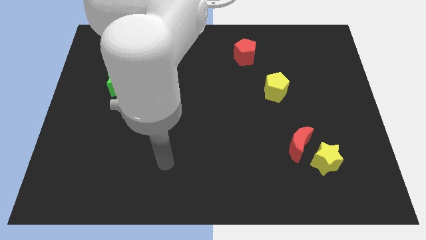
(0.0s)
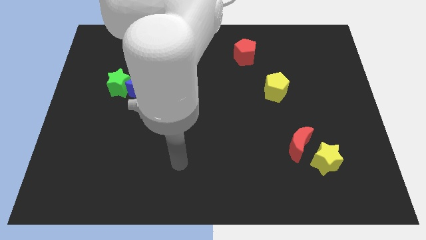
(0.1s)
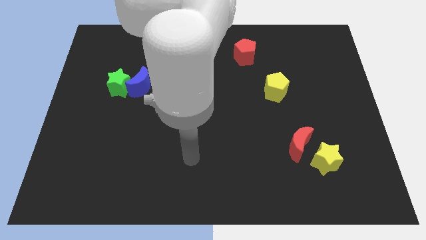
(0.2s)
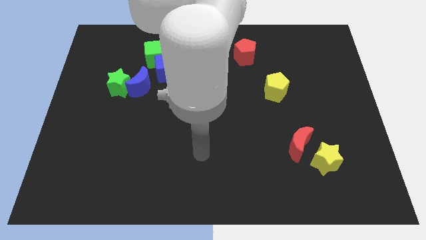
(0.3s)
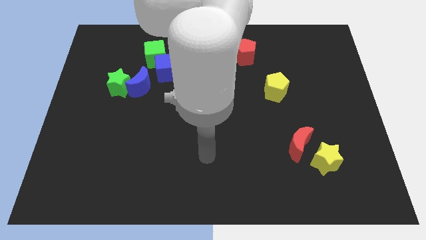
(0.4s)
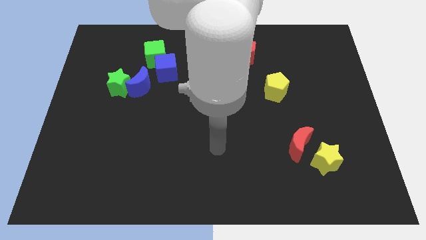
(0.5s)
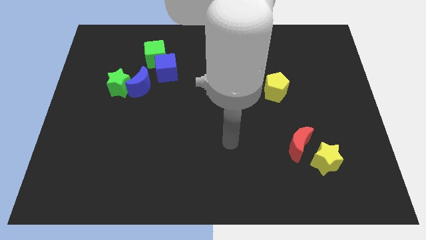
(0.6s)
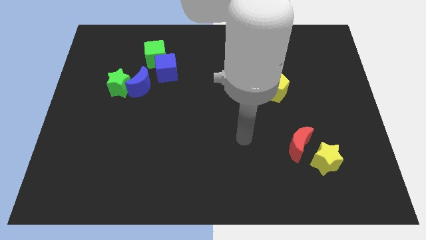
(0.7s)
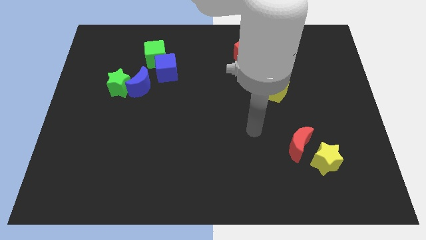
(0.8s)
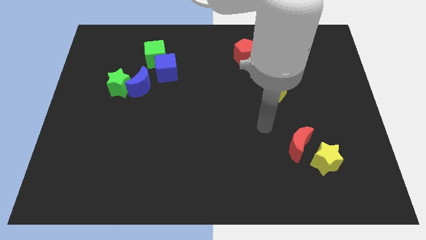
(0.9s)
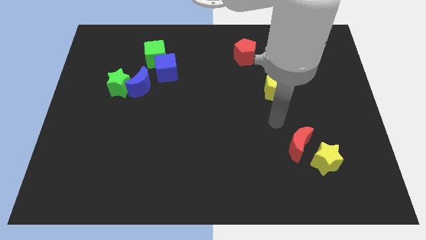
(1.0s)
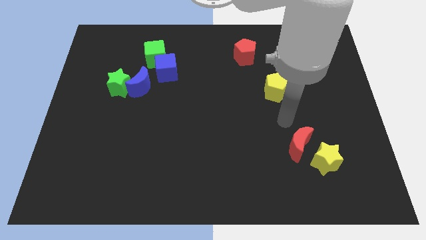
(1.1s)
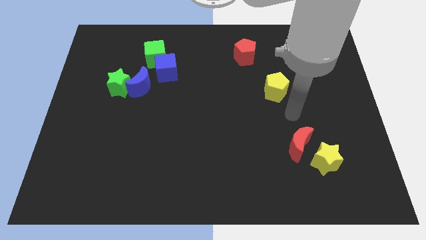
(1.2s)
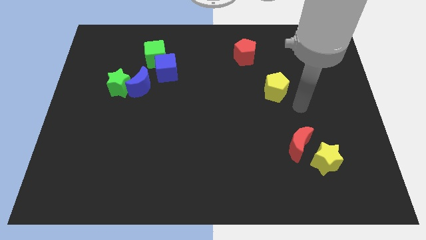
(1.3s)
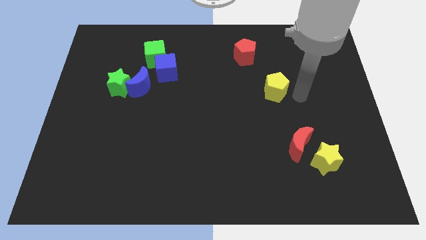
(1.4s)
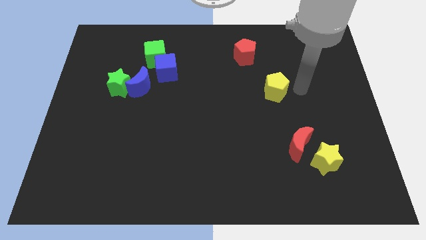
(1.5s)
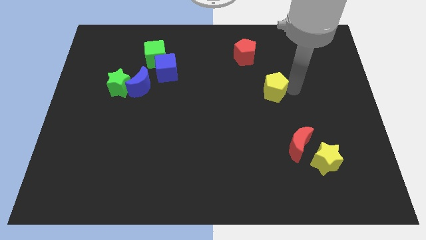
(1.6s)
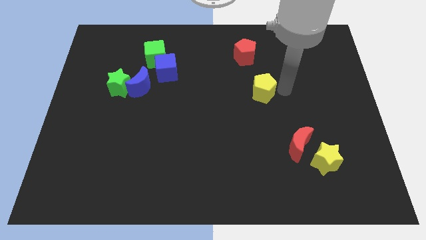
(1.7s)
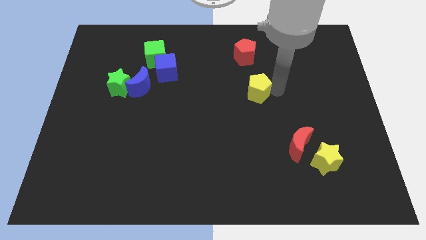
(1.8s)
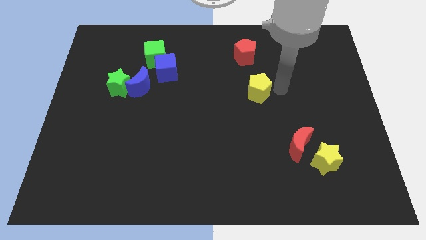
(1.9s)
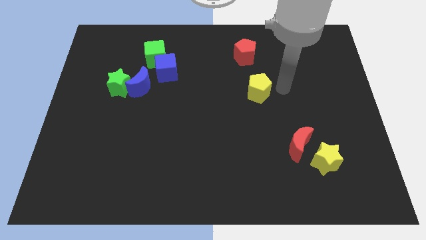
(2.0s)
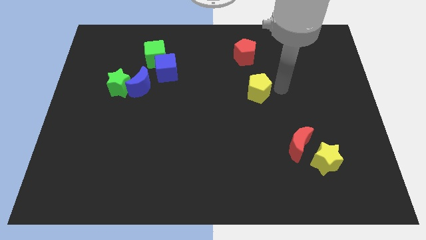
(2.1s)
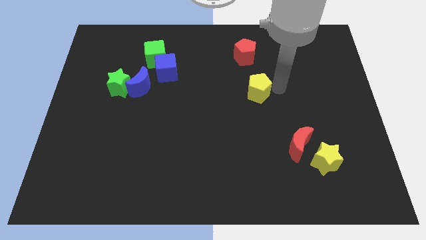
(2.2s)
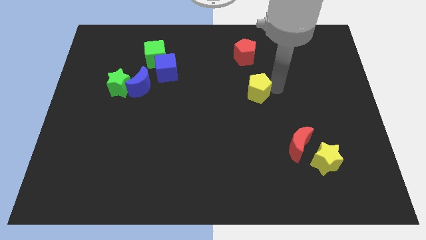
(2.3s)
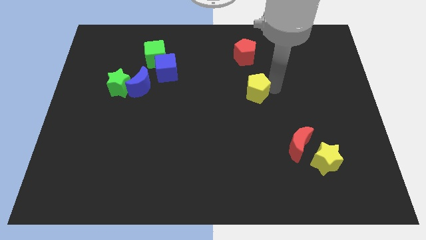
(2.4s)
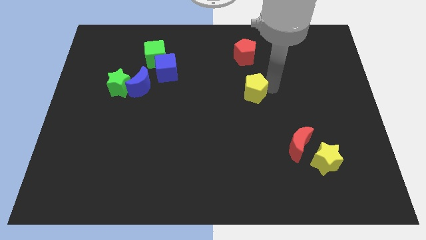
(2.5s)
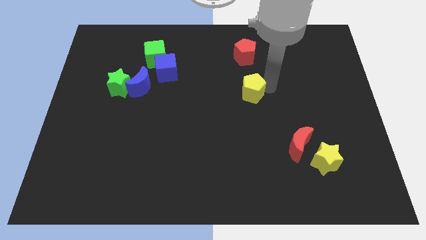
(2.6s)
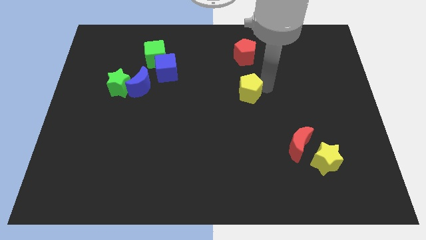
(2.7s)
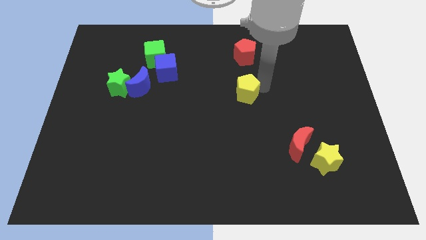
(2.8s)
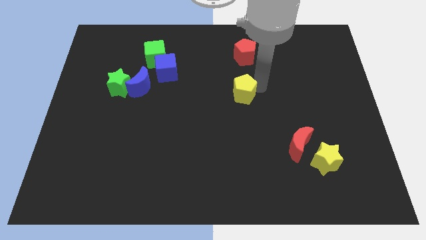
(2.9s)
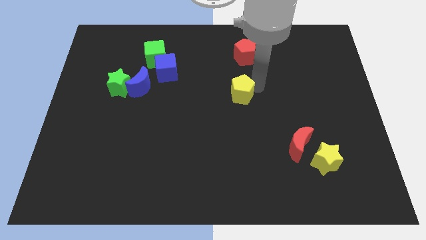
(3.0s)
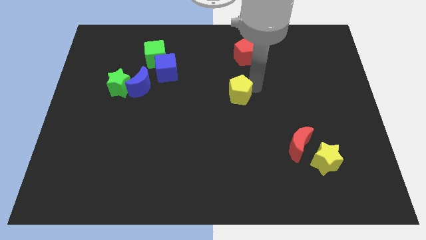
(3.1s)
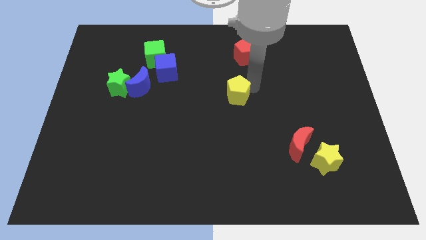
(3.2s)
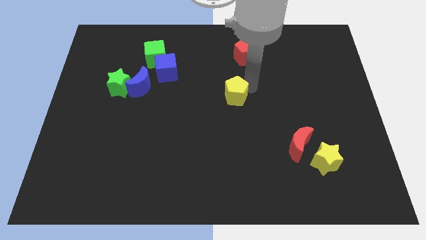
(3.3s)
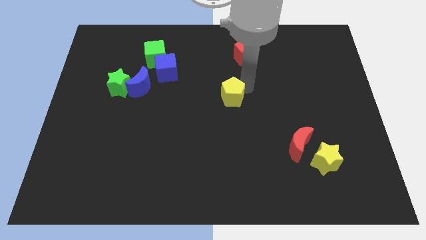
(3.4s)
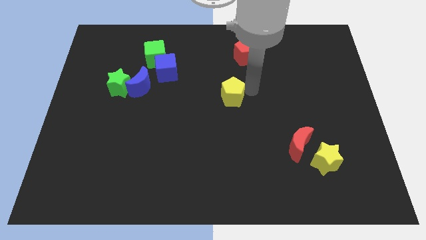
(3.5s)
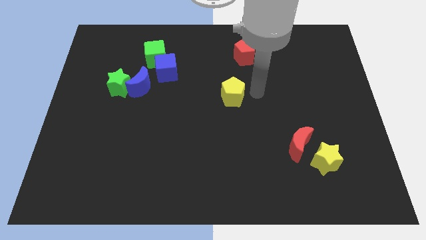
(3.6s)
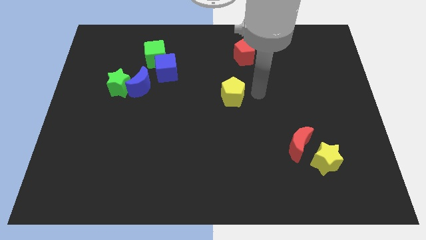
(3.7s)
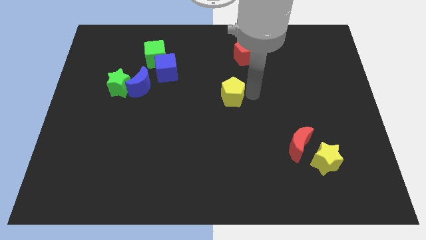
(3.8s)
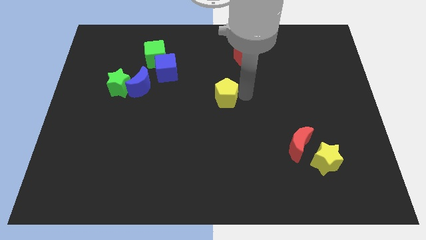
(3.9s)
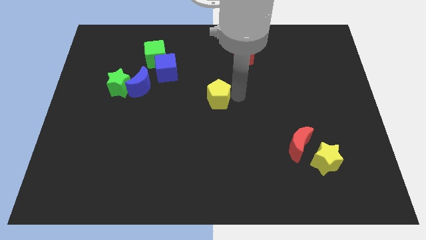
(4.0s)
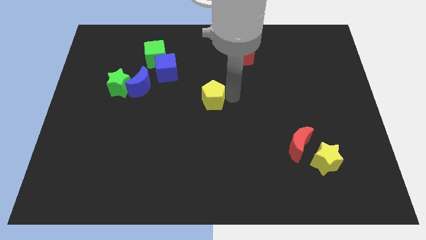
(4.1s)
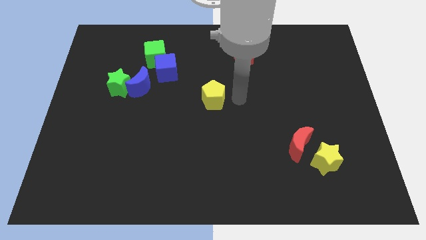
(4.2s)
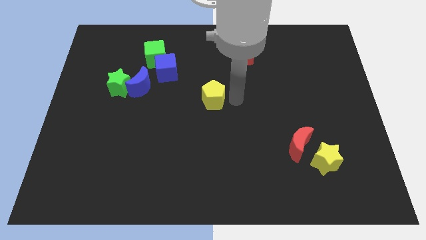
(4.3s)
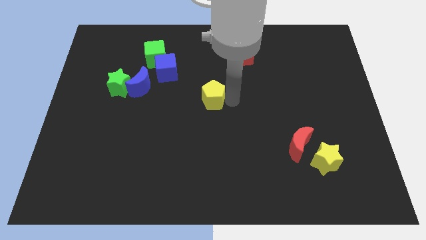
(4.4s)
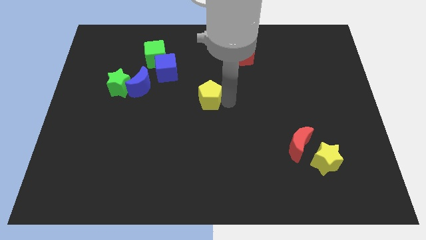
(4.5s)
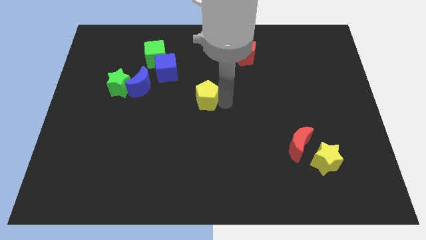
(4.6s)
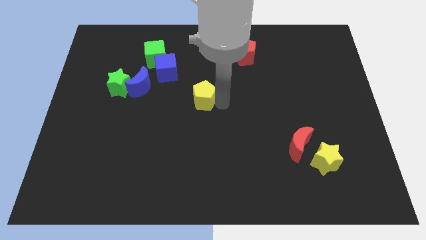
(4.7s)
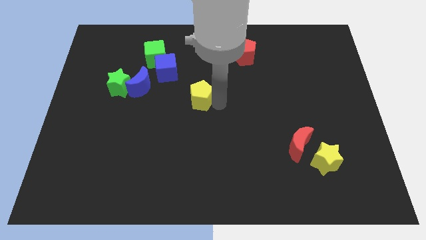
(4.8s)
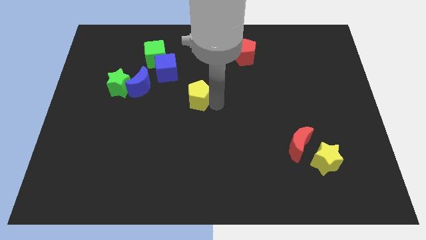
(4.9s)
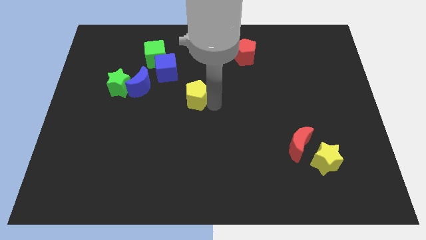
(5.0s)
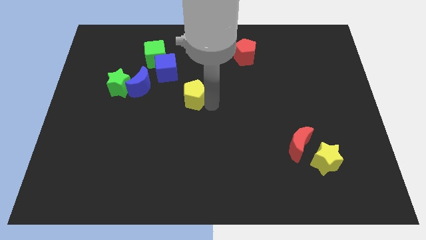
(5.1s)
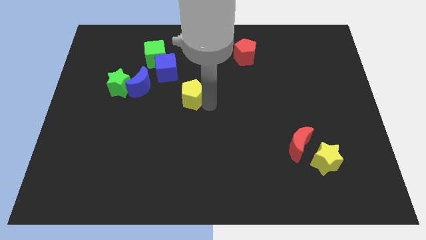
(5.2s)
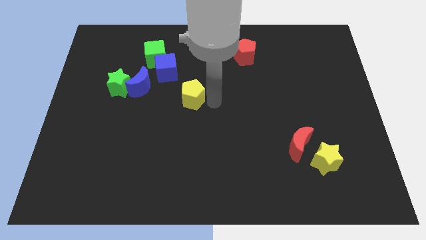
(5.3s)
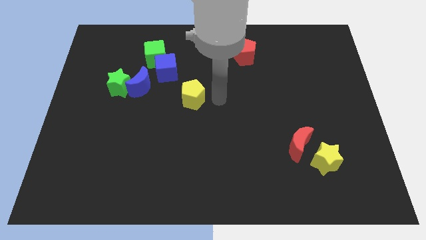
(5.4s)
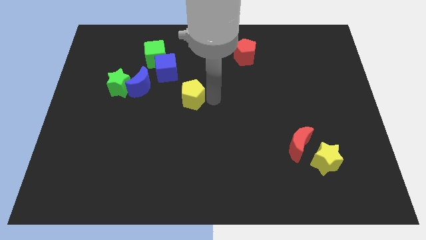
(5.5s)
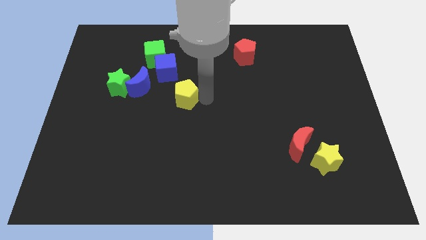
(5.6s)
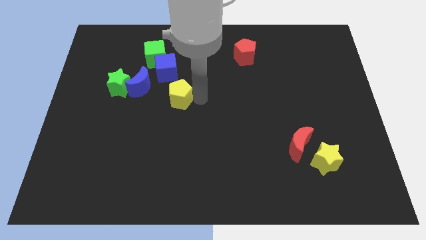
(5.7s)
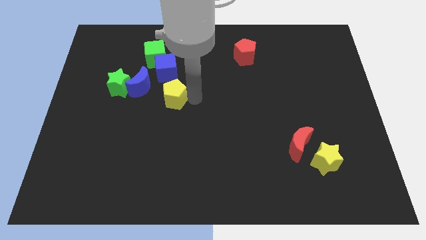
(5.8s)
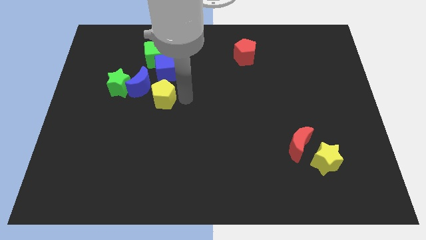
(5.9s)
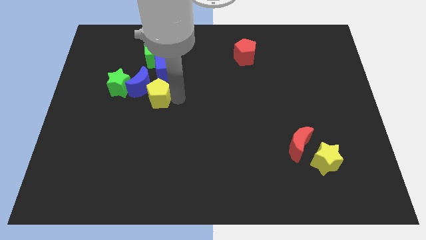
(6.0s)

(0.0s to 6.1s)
push the yellow pentagon to the blue moon

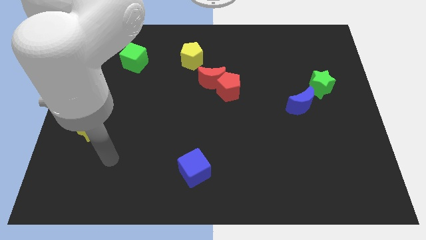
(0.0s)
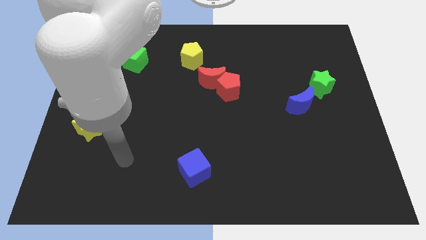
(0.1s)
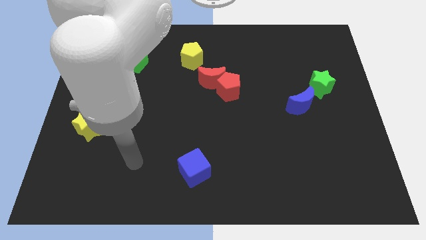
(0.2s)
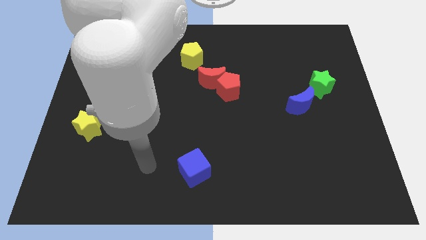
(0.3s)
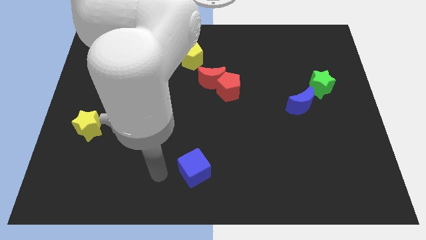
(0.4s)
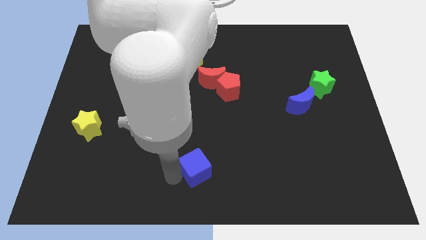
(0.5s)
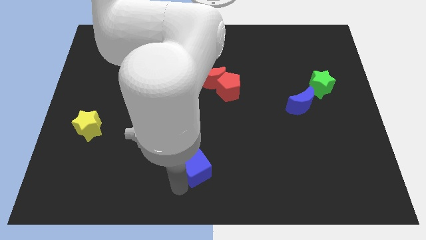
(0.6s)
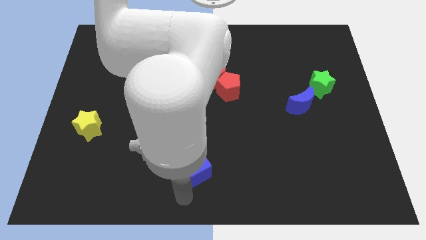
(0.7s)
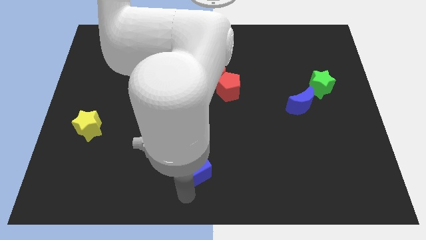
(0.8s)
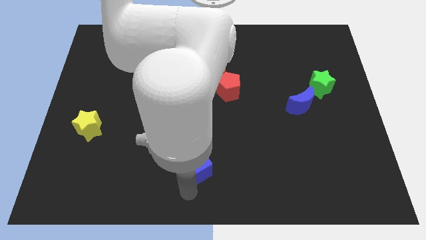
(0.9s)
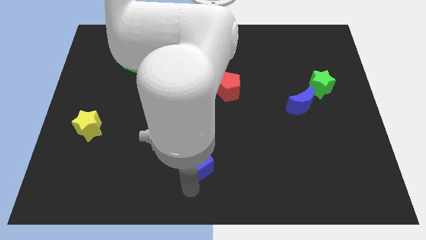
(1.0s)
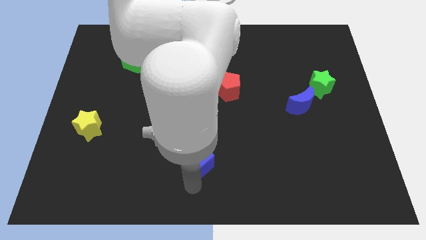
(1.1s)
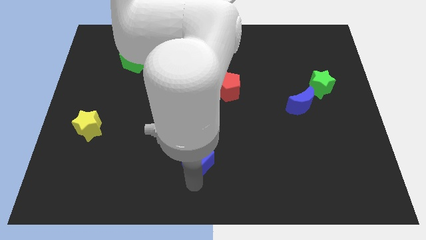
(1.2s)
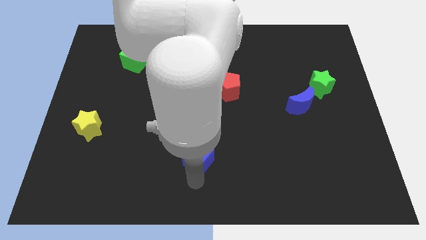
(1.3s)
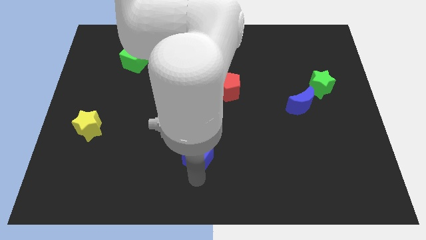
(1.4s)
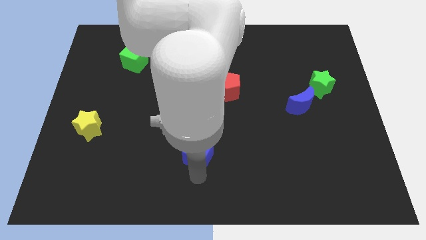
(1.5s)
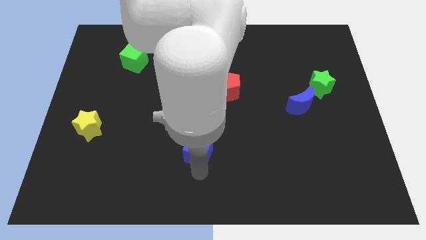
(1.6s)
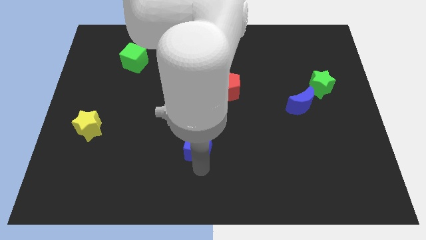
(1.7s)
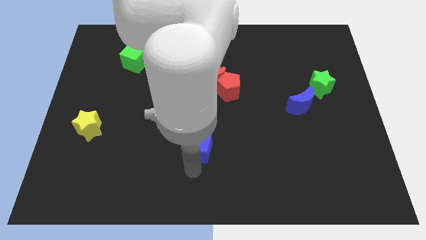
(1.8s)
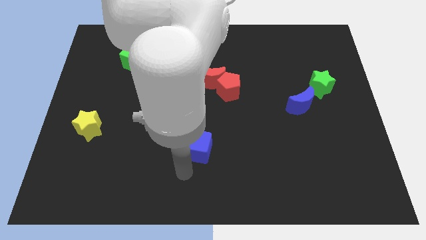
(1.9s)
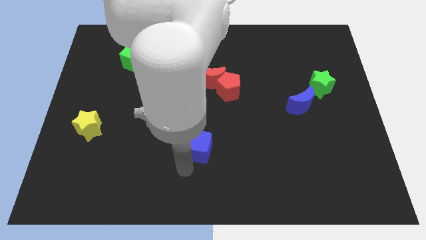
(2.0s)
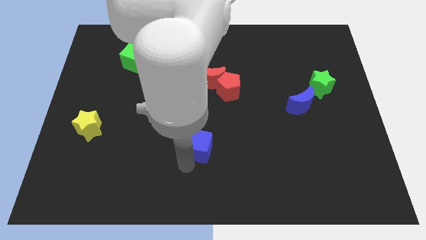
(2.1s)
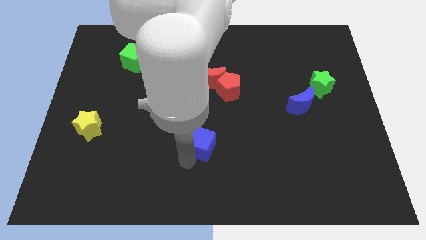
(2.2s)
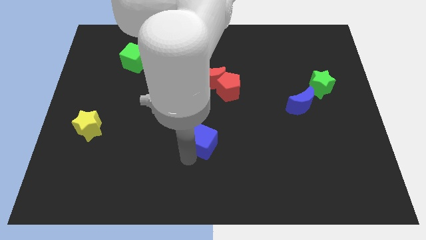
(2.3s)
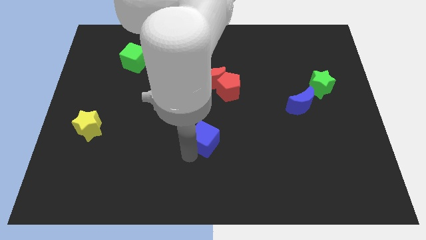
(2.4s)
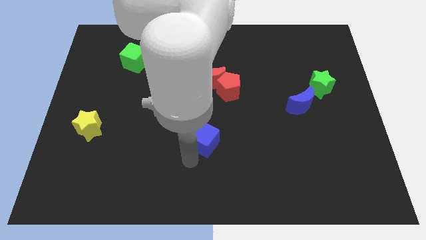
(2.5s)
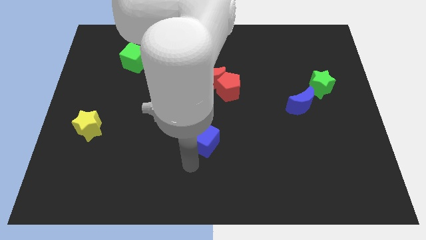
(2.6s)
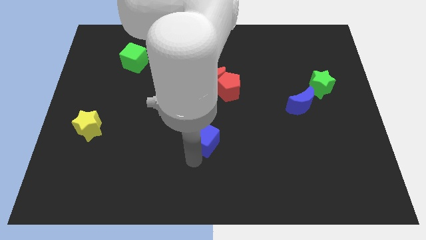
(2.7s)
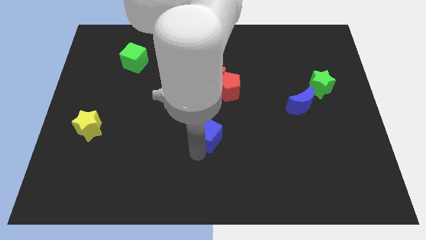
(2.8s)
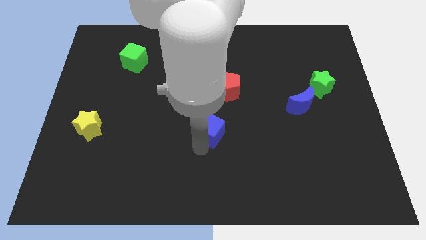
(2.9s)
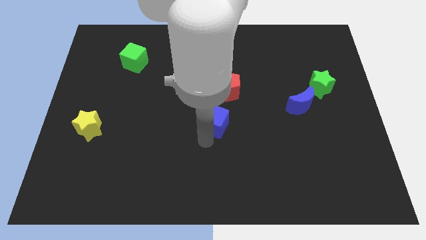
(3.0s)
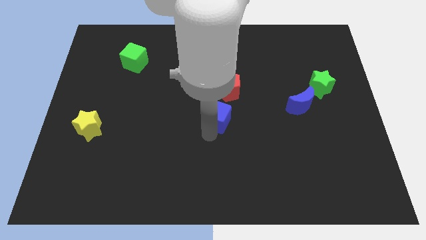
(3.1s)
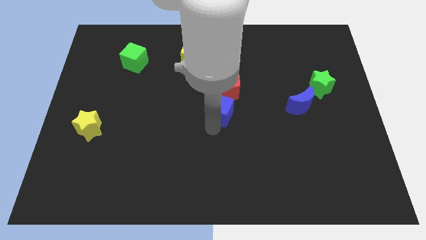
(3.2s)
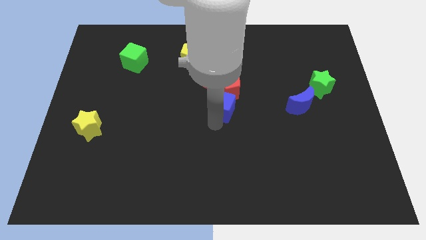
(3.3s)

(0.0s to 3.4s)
slide the blue cube towards the red pentagon
